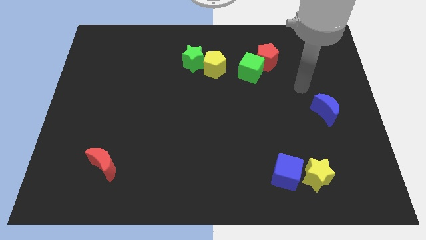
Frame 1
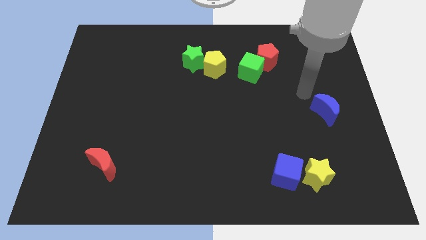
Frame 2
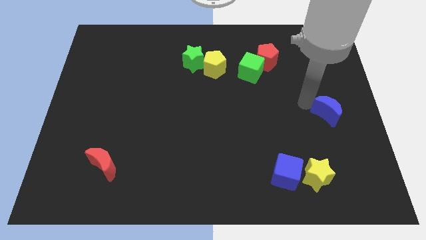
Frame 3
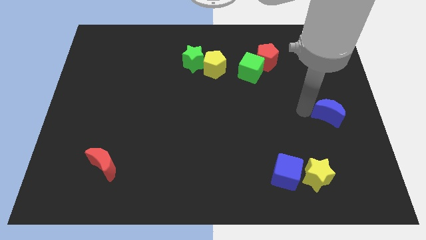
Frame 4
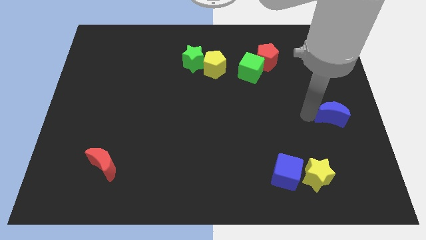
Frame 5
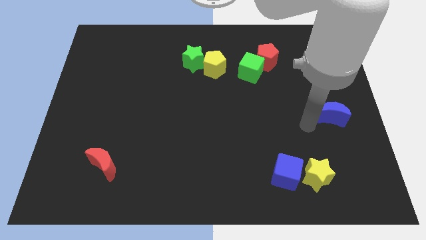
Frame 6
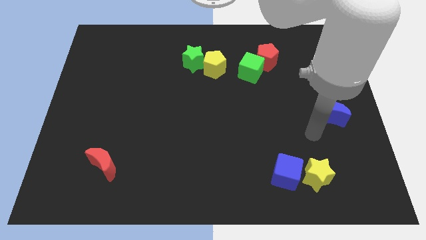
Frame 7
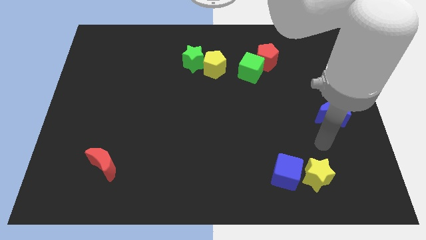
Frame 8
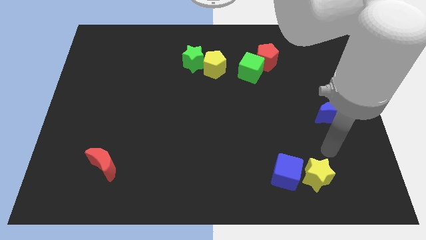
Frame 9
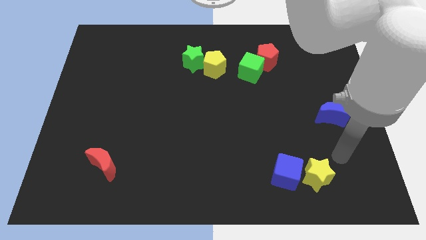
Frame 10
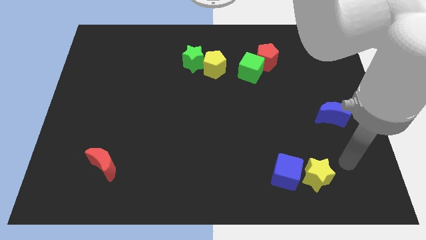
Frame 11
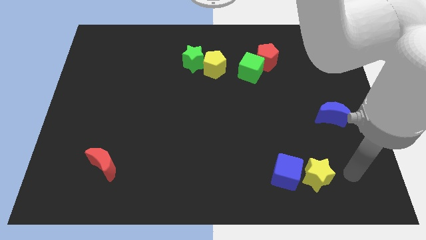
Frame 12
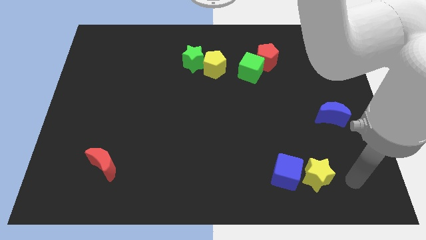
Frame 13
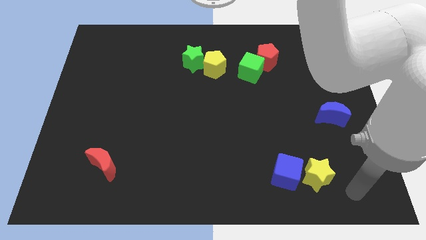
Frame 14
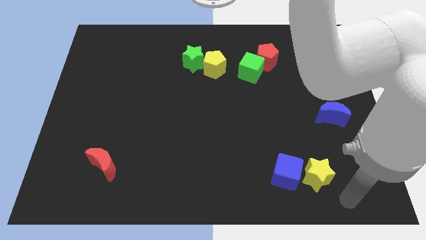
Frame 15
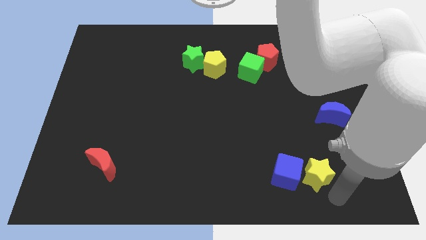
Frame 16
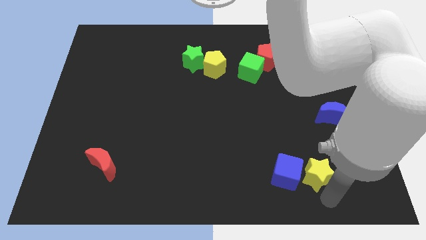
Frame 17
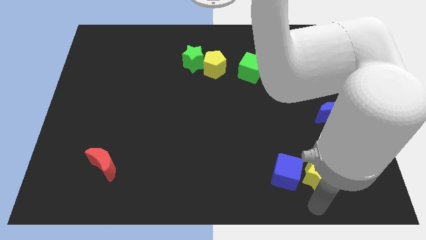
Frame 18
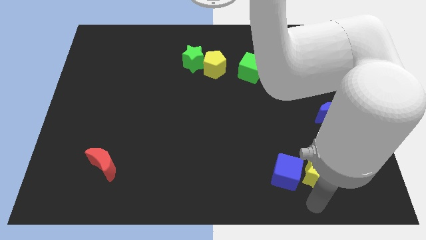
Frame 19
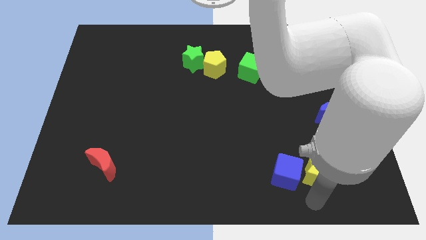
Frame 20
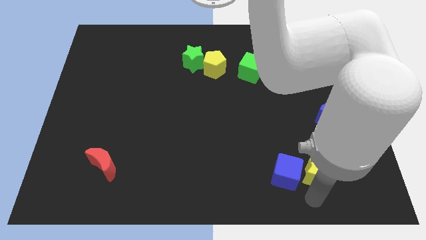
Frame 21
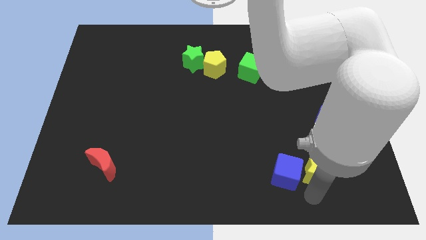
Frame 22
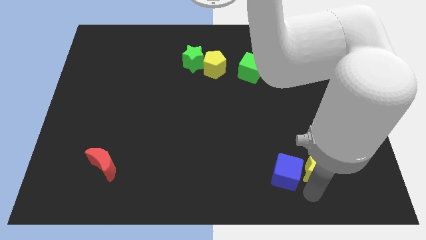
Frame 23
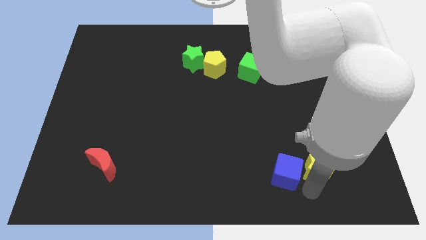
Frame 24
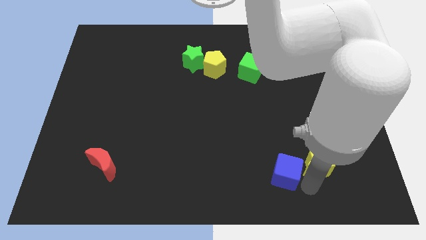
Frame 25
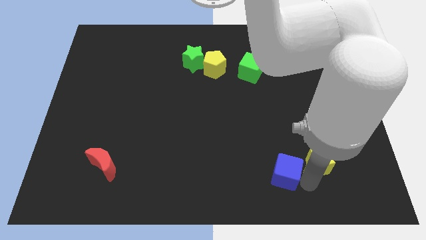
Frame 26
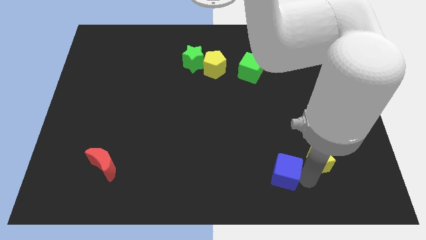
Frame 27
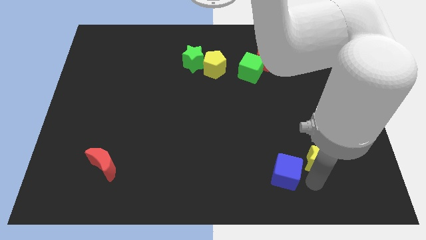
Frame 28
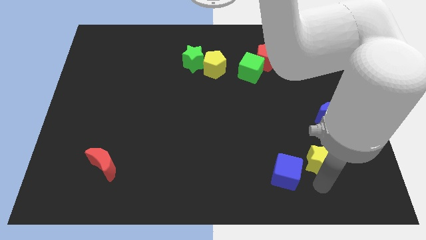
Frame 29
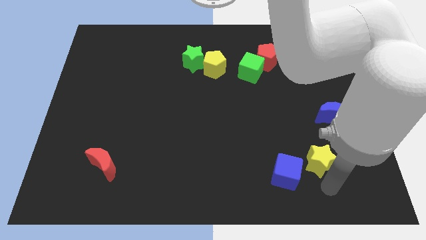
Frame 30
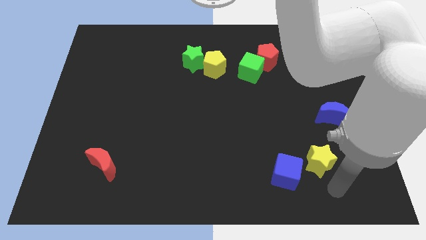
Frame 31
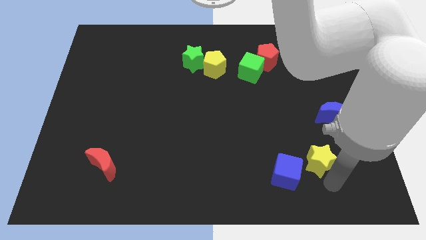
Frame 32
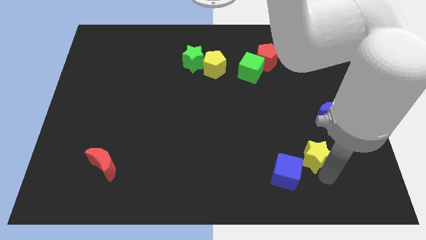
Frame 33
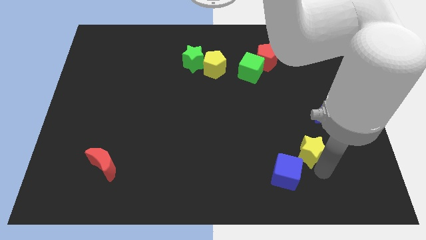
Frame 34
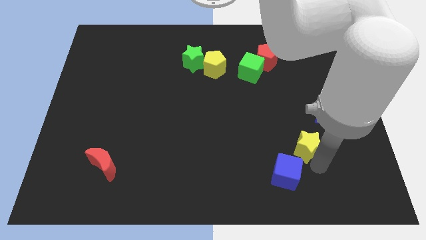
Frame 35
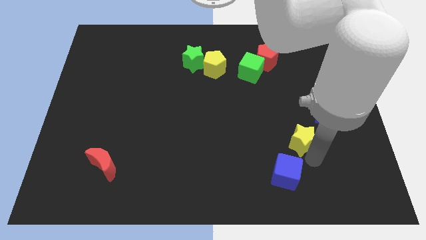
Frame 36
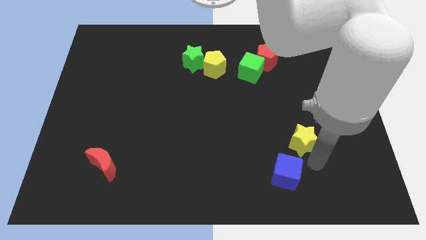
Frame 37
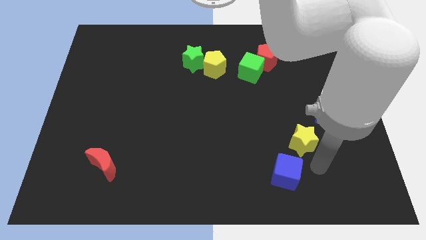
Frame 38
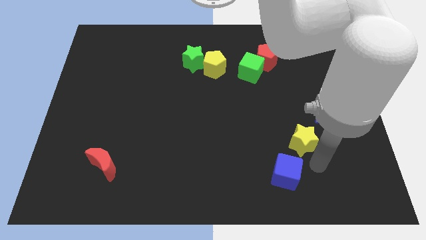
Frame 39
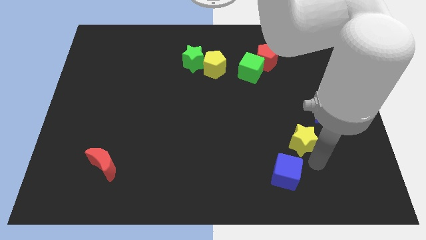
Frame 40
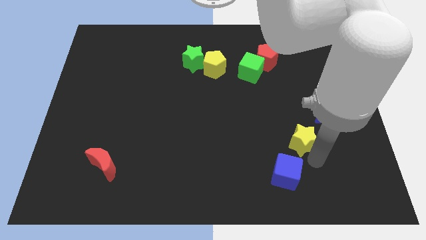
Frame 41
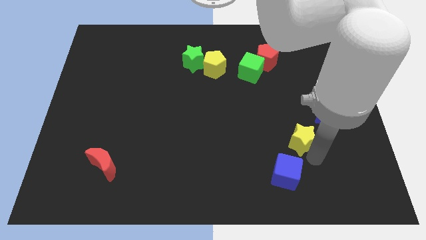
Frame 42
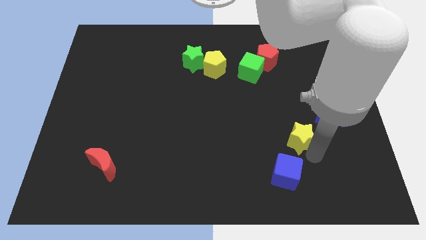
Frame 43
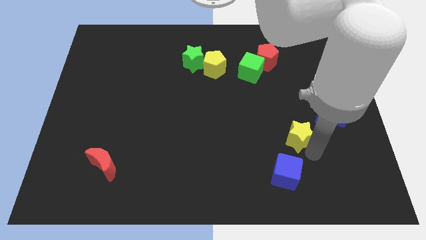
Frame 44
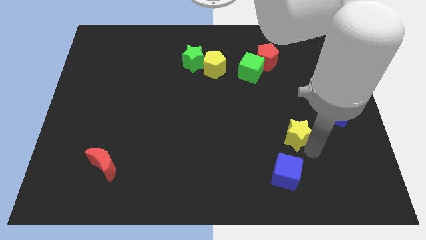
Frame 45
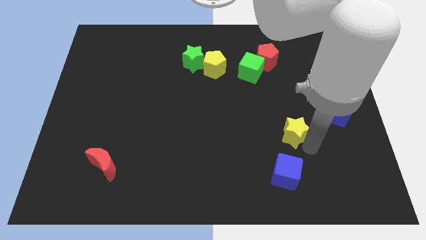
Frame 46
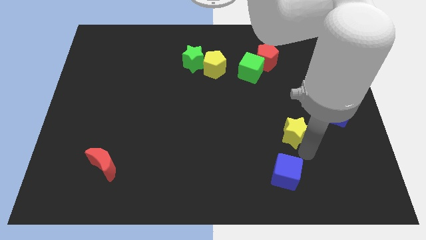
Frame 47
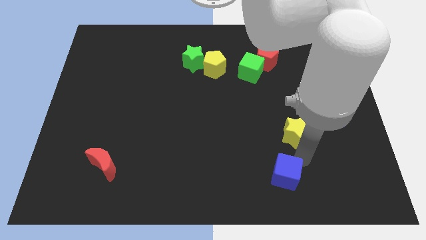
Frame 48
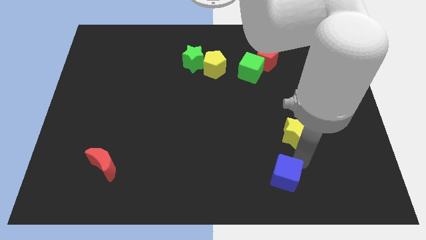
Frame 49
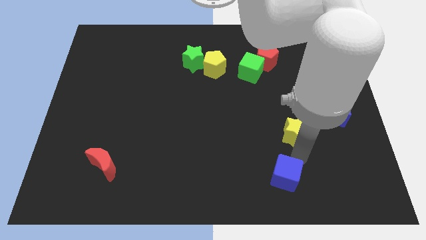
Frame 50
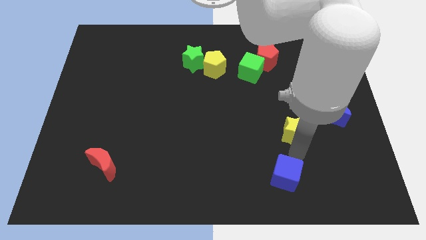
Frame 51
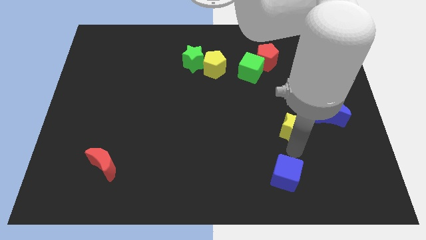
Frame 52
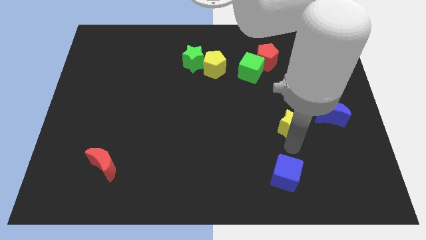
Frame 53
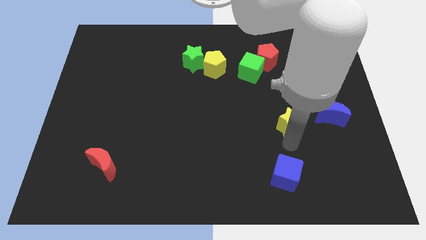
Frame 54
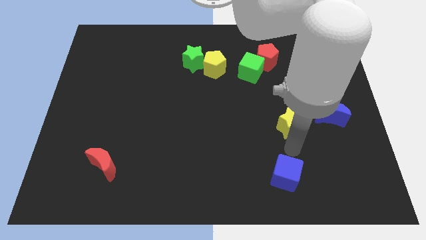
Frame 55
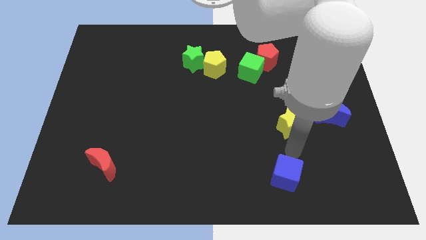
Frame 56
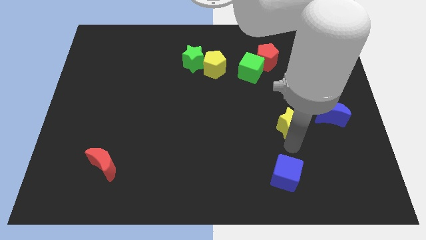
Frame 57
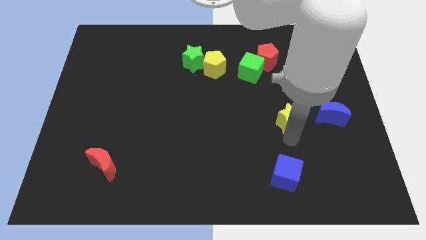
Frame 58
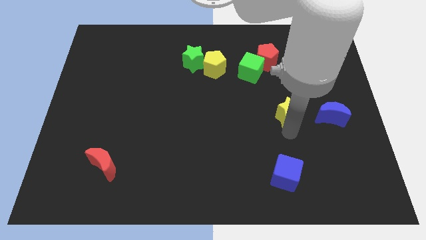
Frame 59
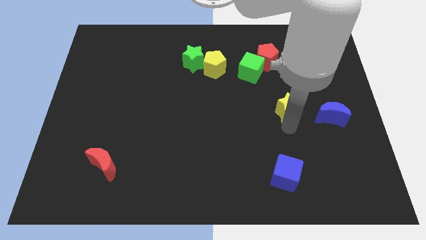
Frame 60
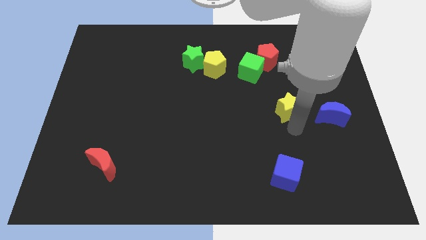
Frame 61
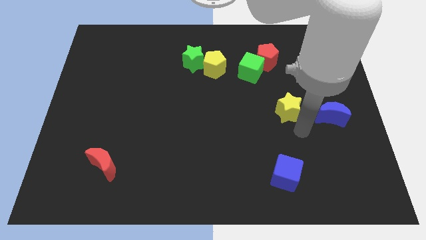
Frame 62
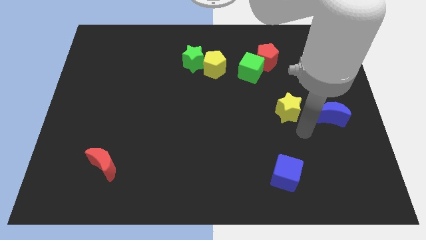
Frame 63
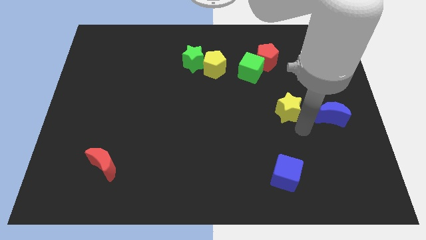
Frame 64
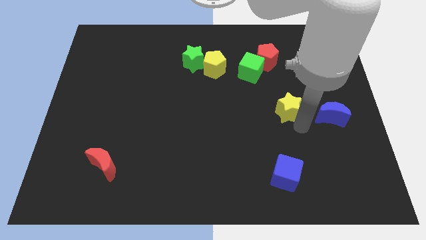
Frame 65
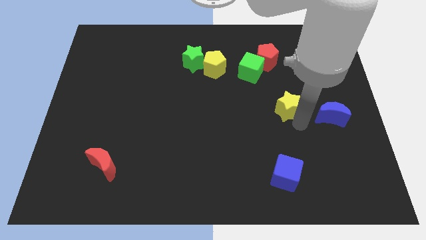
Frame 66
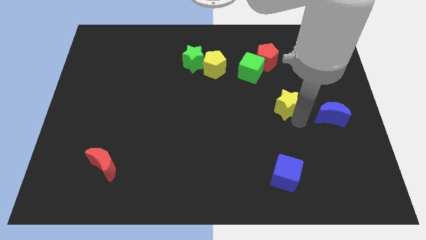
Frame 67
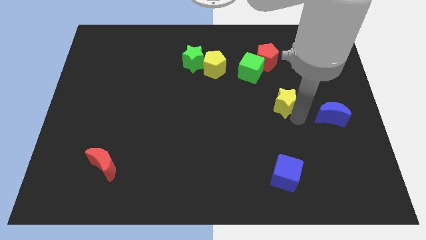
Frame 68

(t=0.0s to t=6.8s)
move the yellow star below the red pentagon

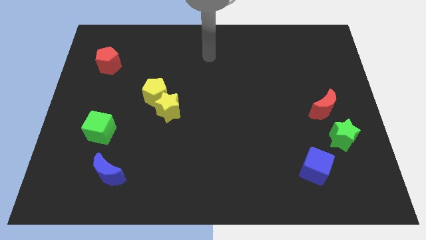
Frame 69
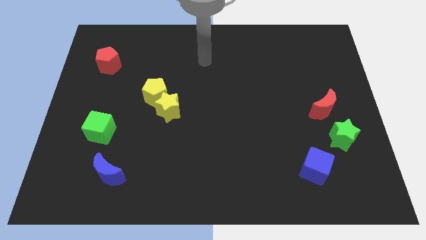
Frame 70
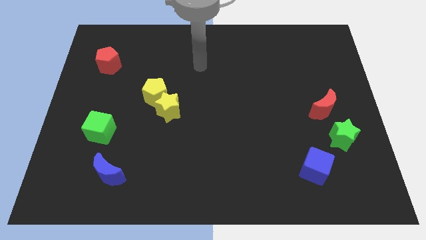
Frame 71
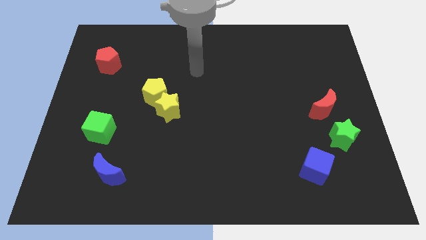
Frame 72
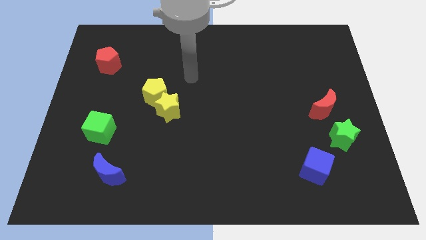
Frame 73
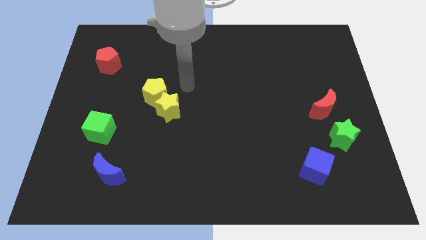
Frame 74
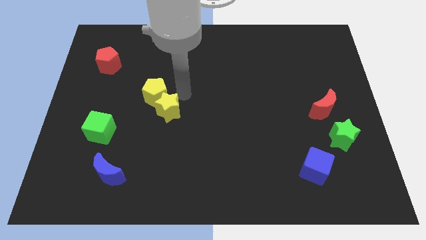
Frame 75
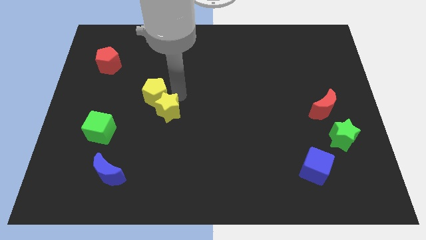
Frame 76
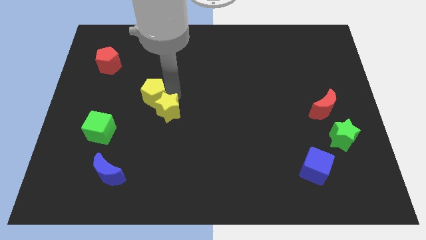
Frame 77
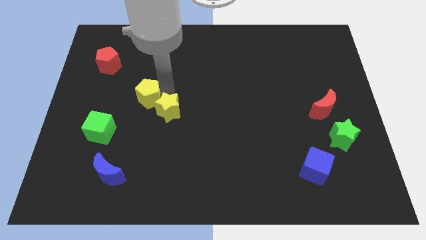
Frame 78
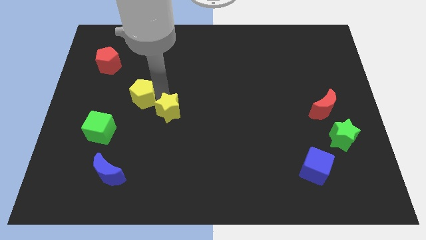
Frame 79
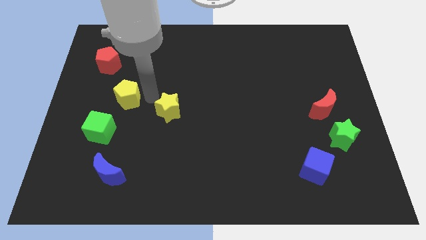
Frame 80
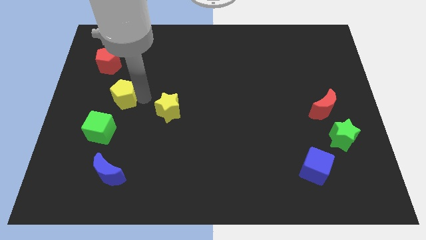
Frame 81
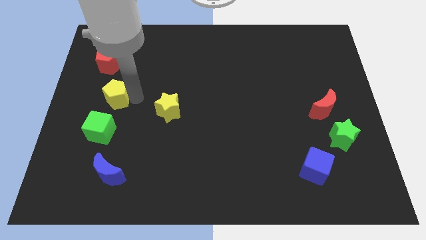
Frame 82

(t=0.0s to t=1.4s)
put the yellow pentagon to the bottom side of the red pentagon
